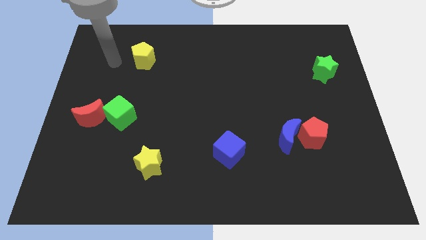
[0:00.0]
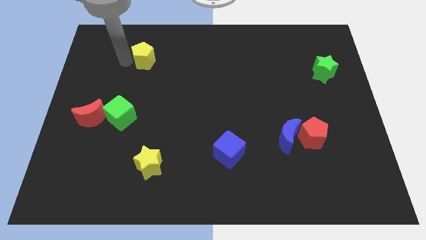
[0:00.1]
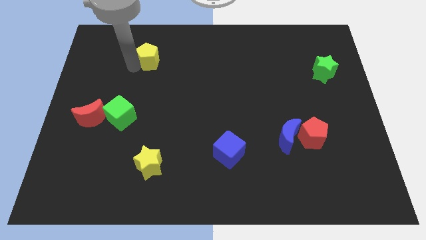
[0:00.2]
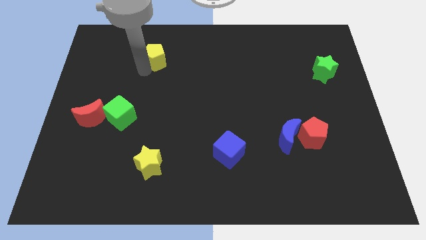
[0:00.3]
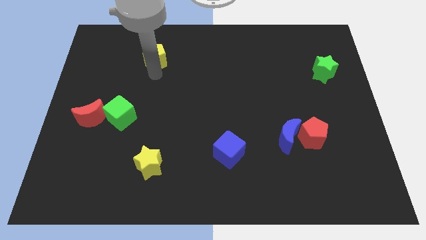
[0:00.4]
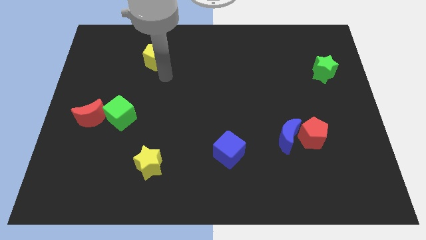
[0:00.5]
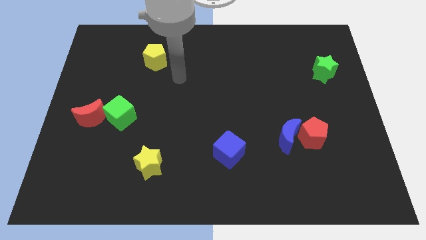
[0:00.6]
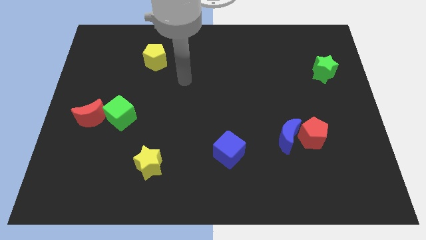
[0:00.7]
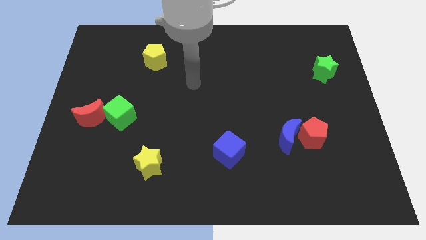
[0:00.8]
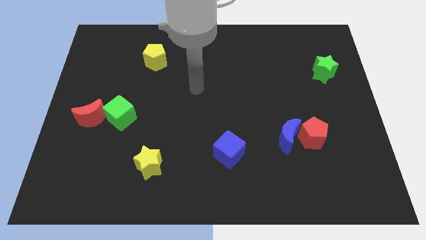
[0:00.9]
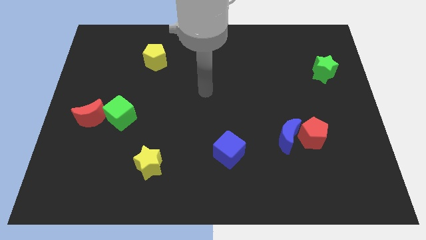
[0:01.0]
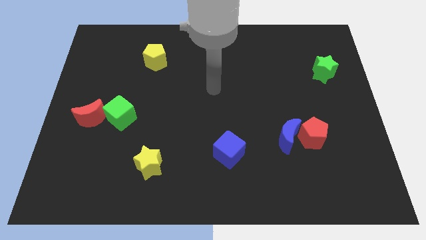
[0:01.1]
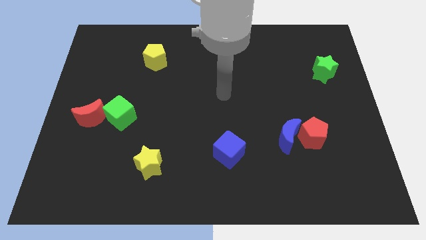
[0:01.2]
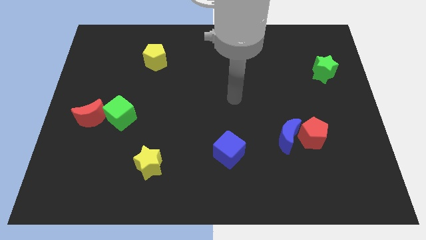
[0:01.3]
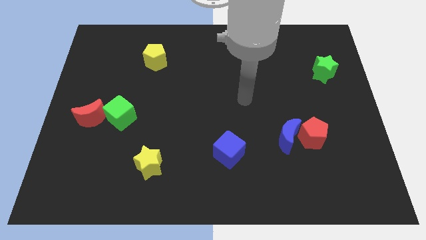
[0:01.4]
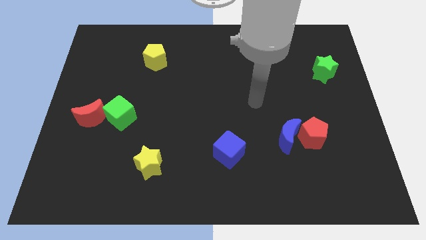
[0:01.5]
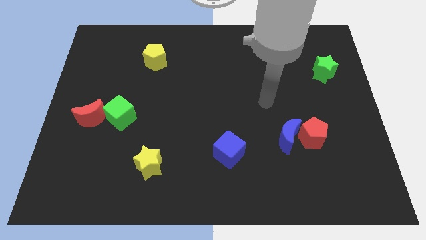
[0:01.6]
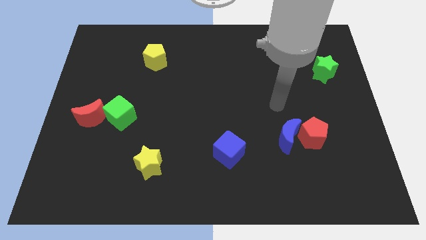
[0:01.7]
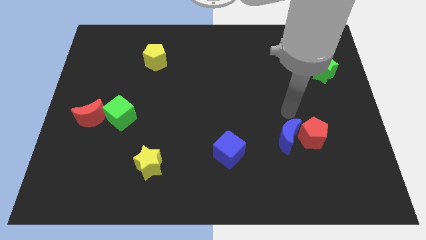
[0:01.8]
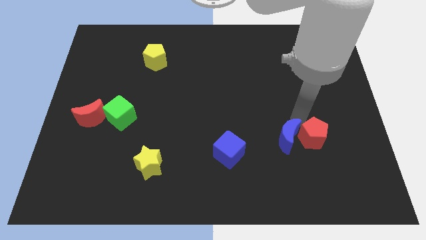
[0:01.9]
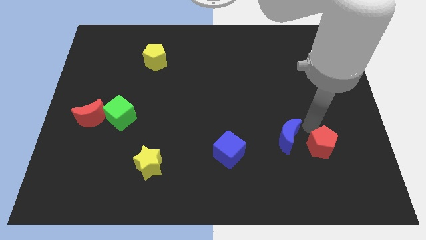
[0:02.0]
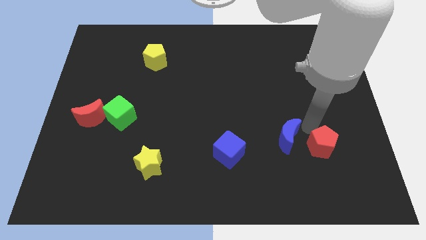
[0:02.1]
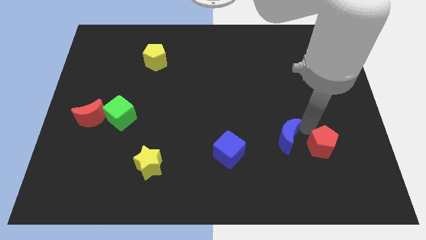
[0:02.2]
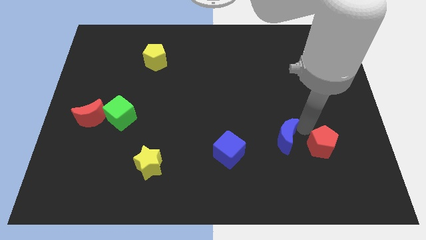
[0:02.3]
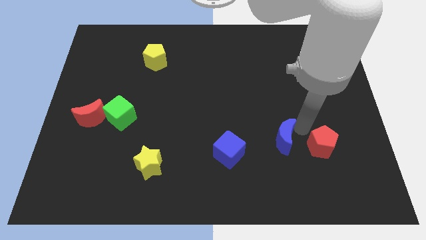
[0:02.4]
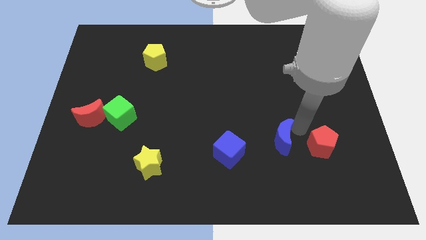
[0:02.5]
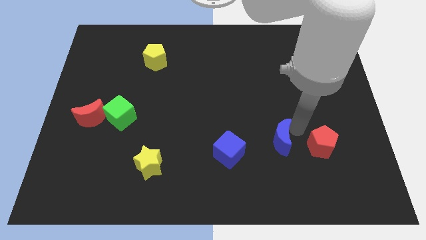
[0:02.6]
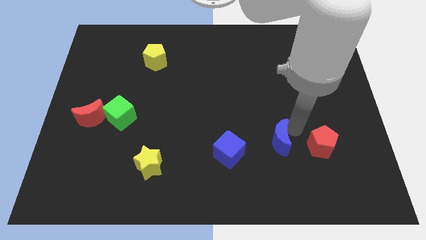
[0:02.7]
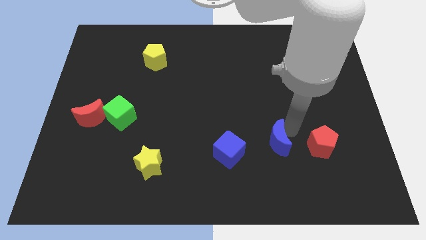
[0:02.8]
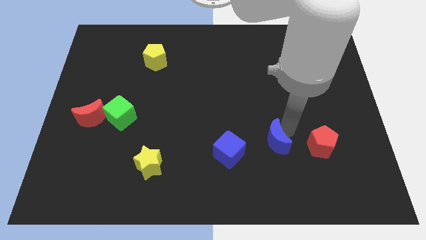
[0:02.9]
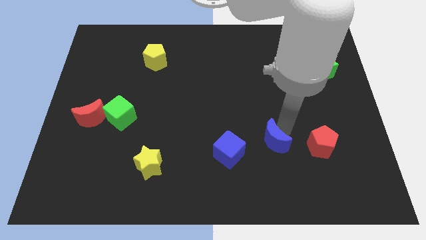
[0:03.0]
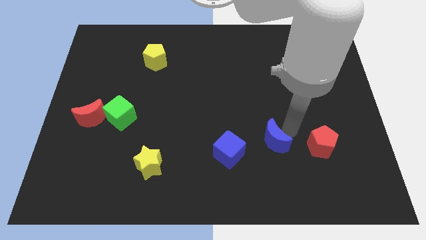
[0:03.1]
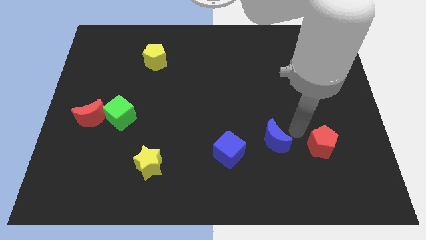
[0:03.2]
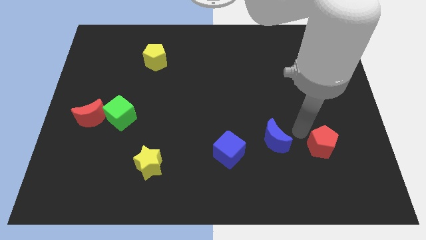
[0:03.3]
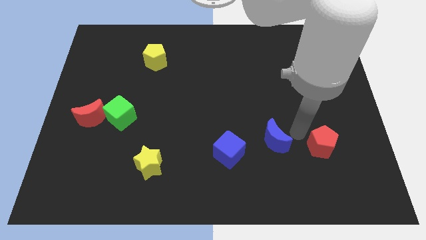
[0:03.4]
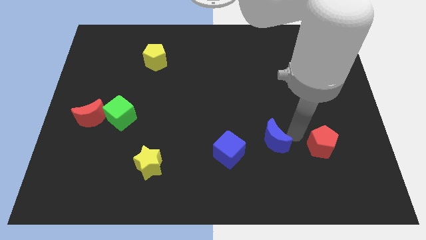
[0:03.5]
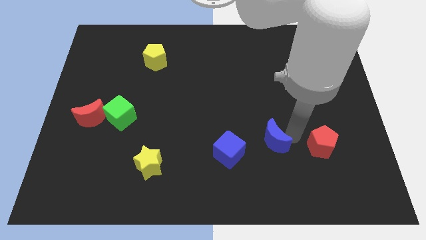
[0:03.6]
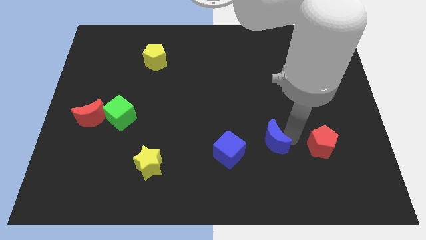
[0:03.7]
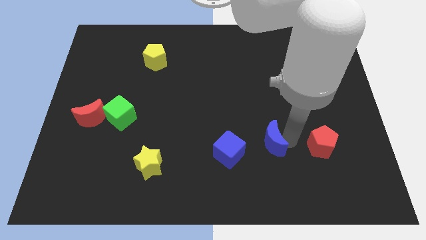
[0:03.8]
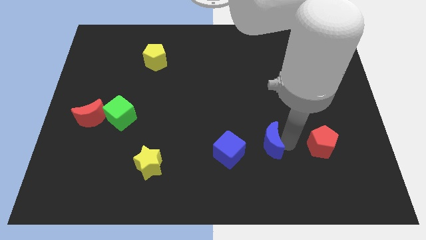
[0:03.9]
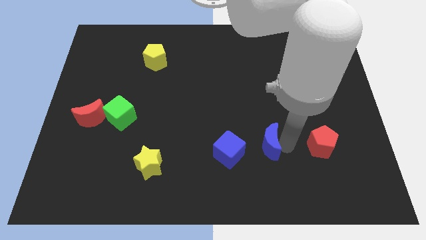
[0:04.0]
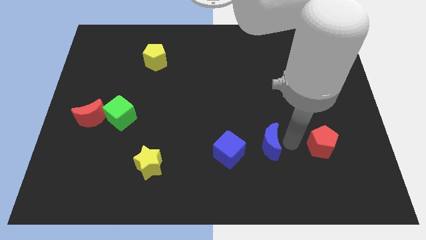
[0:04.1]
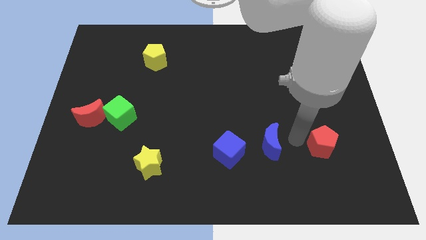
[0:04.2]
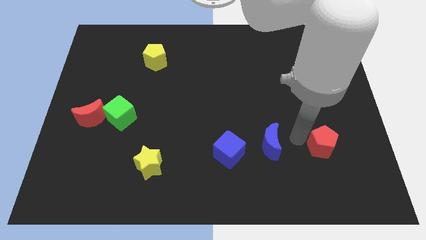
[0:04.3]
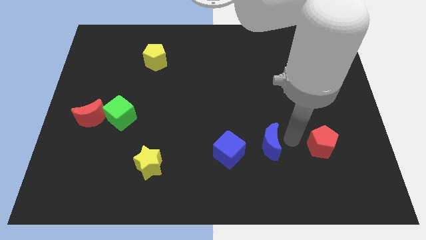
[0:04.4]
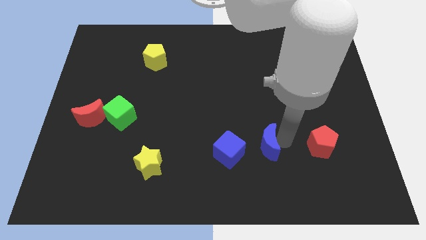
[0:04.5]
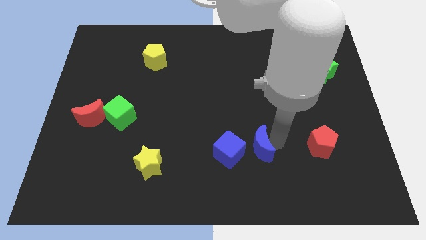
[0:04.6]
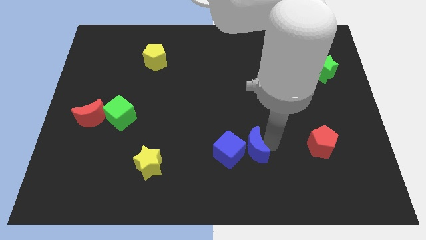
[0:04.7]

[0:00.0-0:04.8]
slide the blue moon to the blue cube

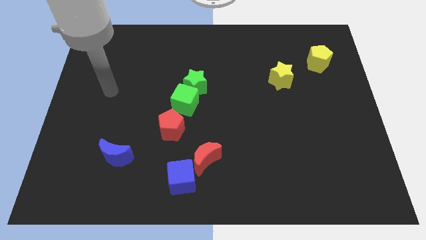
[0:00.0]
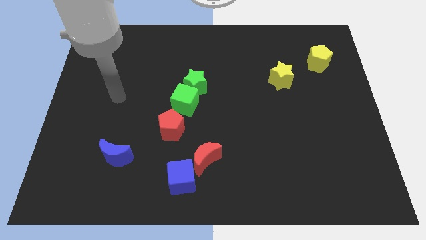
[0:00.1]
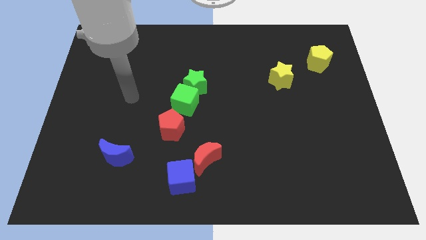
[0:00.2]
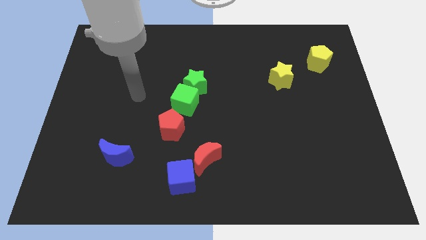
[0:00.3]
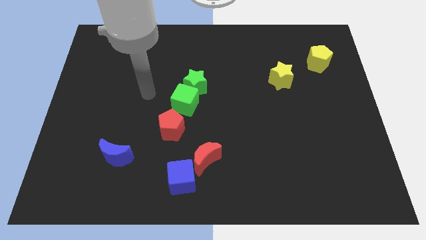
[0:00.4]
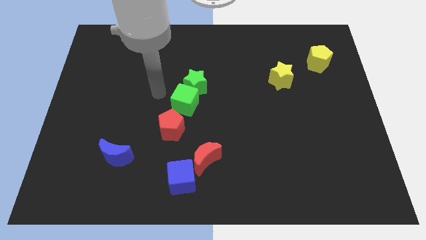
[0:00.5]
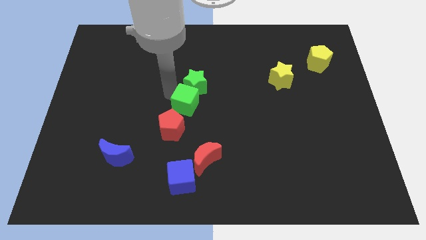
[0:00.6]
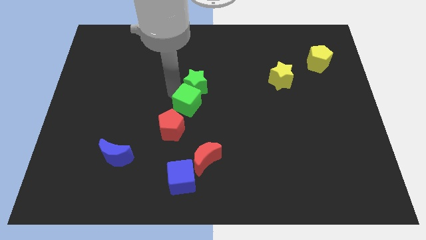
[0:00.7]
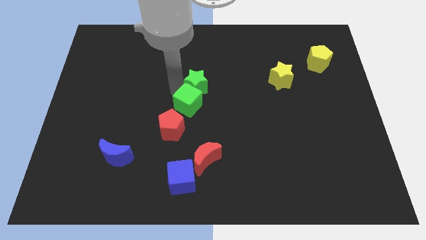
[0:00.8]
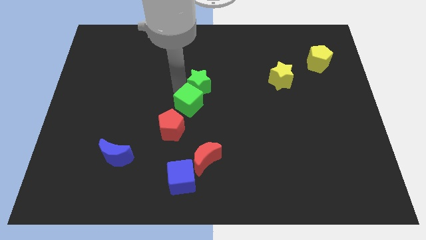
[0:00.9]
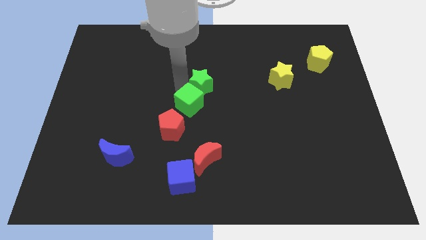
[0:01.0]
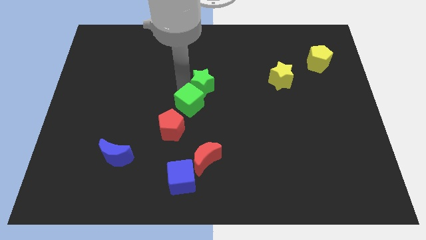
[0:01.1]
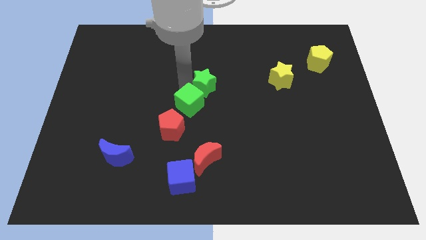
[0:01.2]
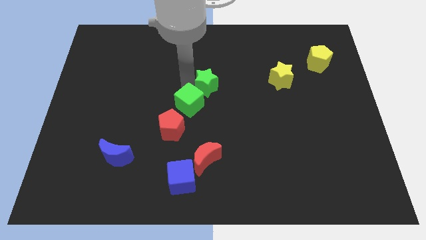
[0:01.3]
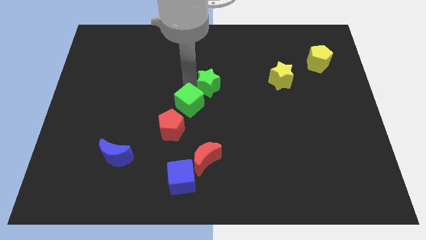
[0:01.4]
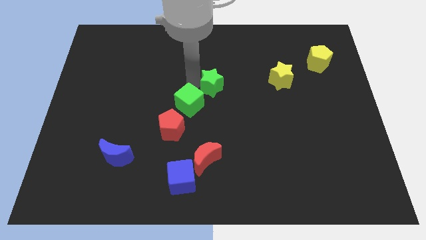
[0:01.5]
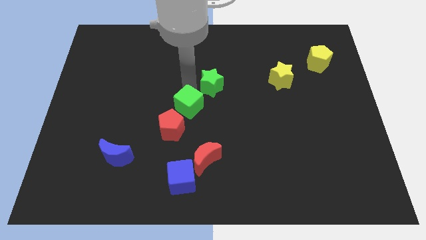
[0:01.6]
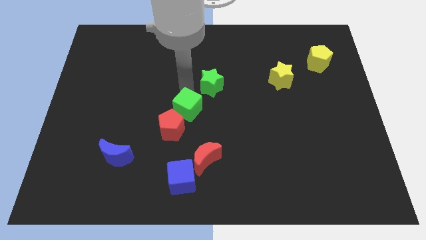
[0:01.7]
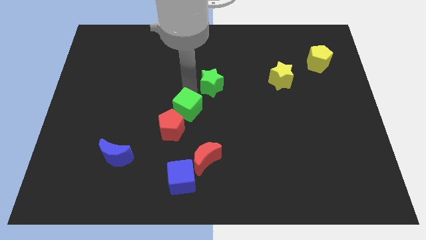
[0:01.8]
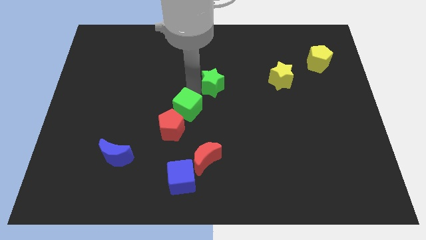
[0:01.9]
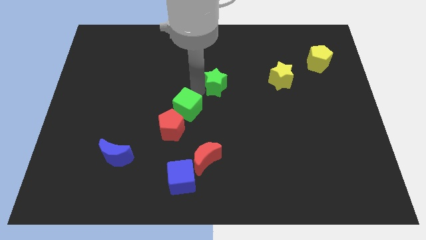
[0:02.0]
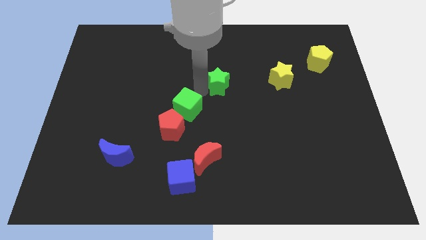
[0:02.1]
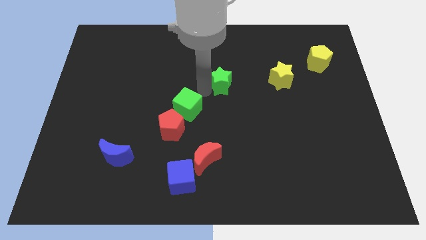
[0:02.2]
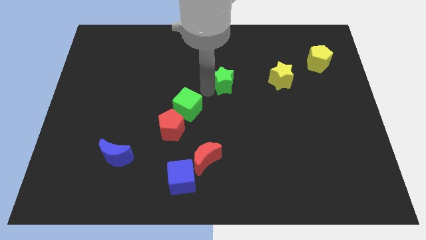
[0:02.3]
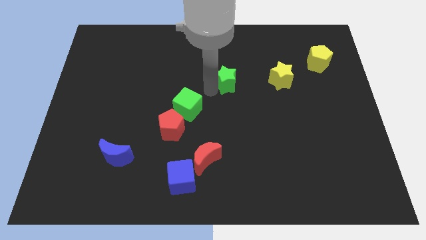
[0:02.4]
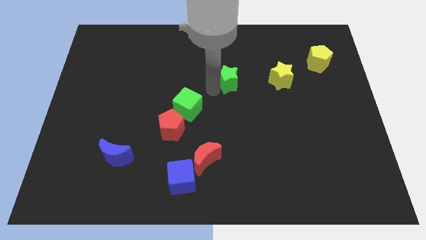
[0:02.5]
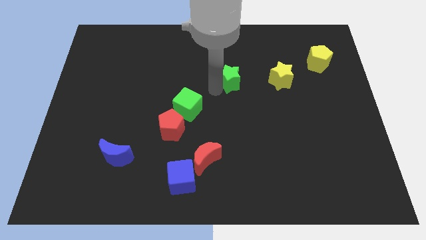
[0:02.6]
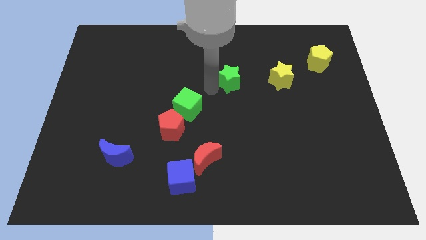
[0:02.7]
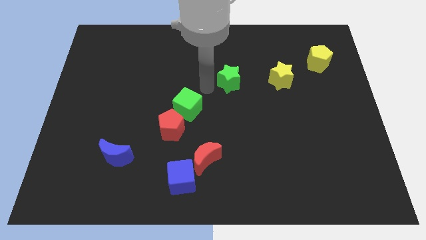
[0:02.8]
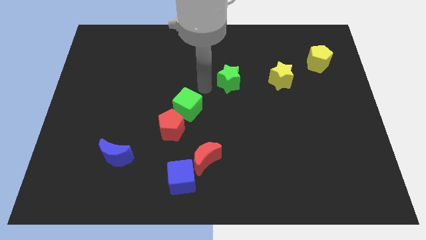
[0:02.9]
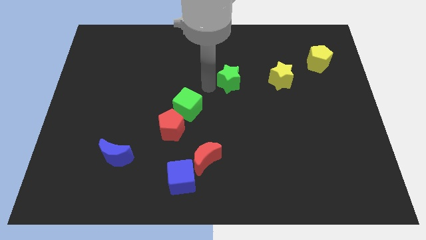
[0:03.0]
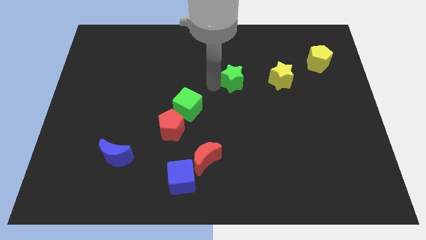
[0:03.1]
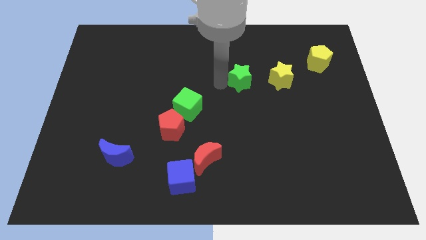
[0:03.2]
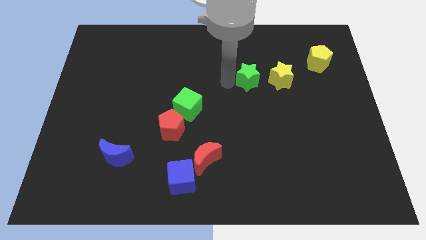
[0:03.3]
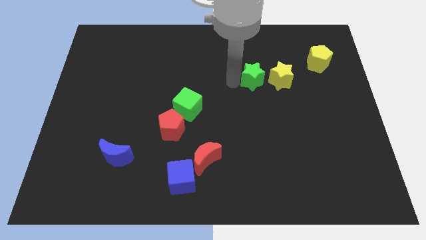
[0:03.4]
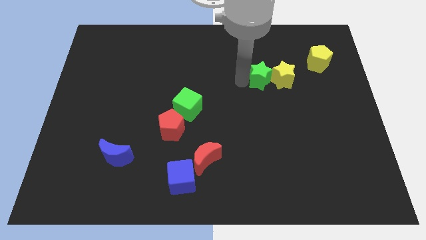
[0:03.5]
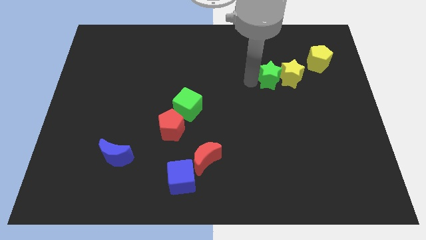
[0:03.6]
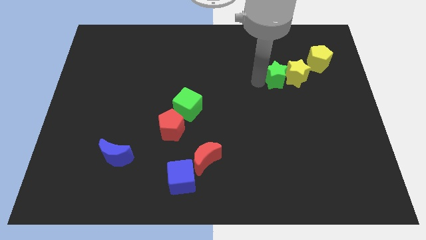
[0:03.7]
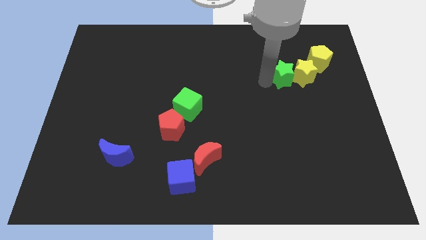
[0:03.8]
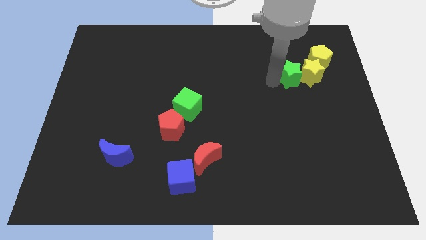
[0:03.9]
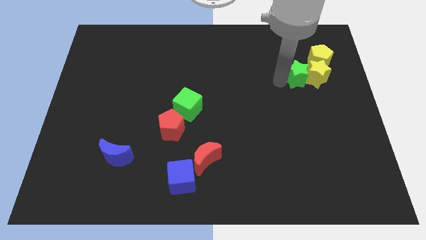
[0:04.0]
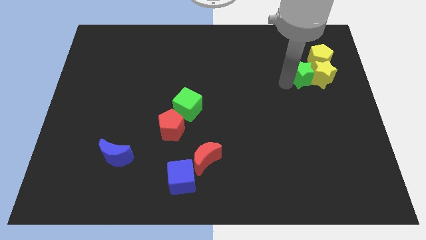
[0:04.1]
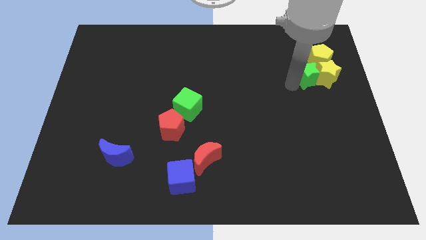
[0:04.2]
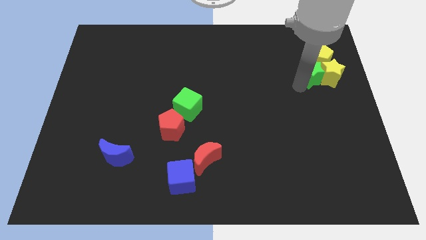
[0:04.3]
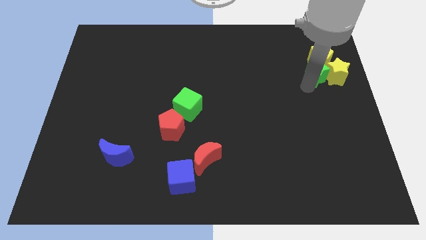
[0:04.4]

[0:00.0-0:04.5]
slide the green star to the yellow pentagon
